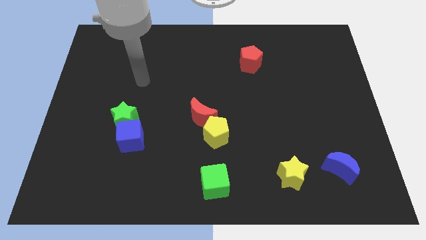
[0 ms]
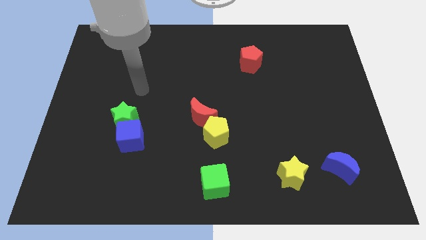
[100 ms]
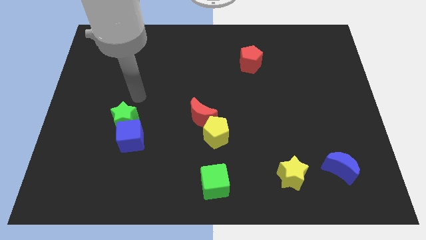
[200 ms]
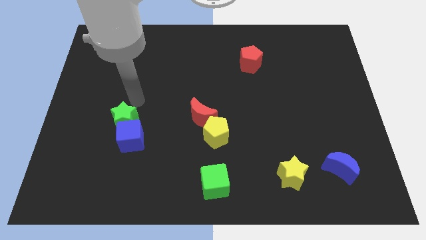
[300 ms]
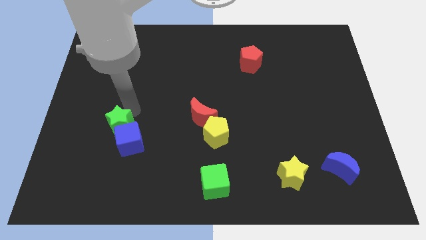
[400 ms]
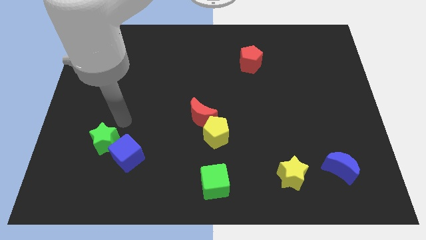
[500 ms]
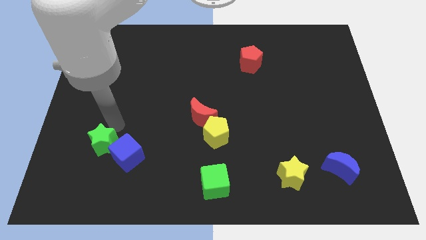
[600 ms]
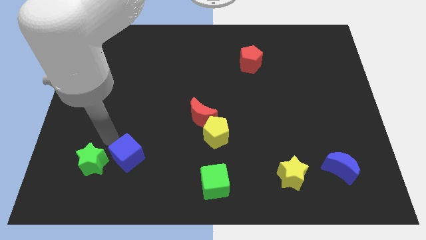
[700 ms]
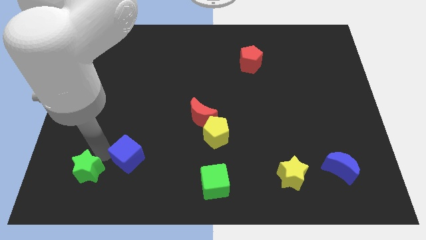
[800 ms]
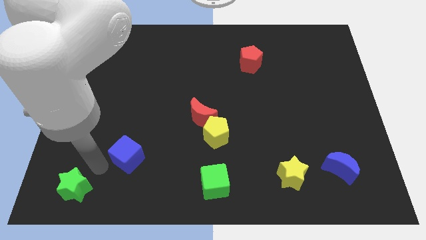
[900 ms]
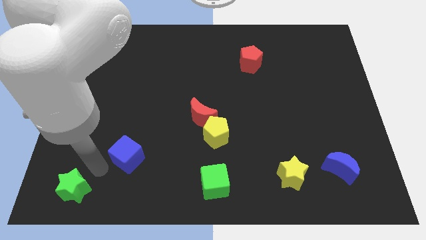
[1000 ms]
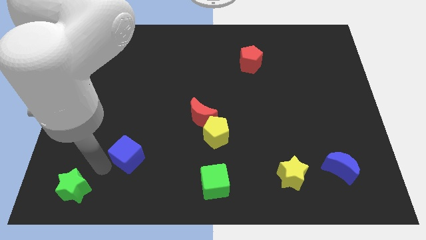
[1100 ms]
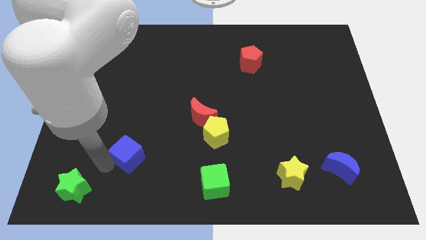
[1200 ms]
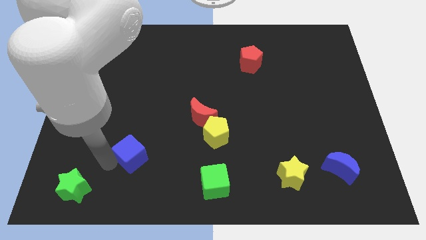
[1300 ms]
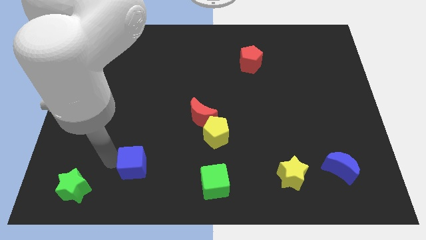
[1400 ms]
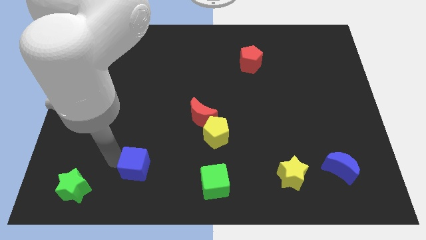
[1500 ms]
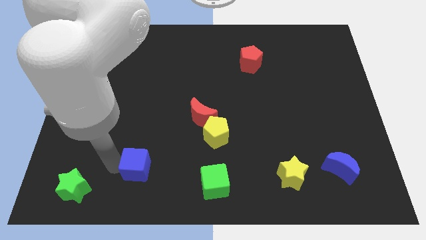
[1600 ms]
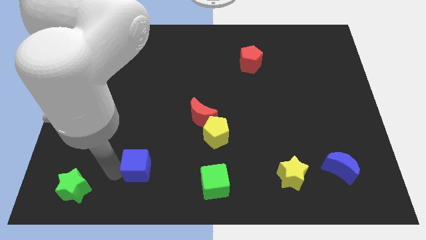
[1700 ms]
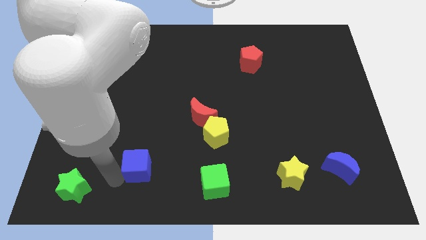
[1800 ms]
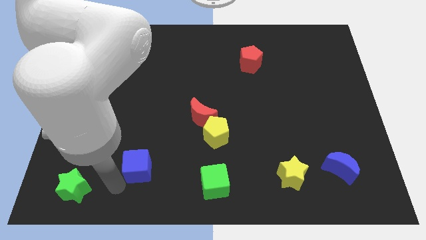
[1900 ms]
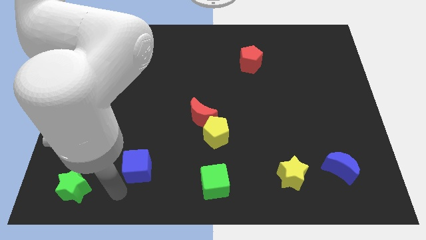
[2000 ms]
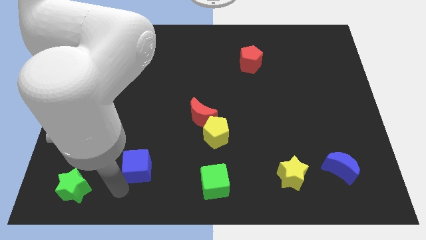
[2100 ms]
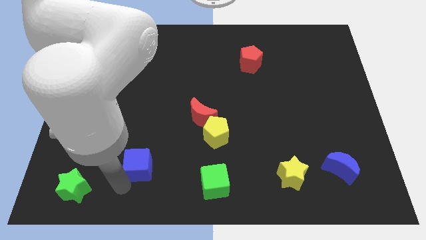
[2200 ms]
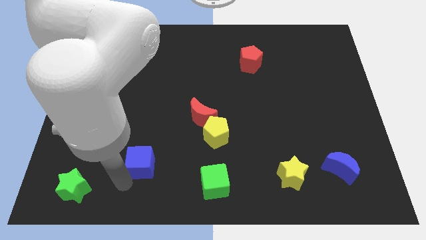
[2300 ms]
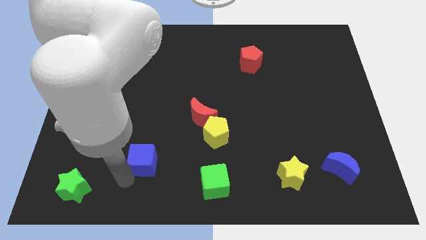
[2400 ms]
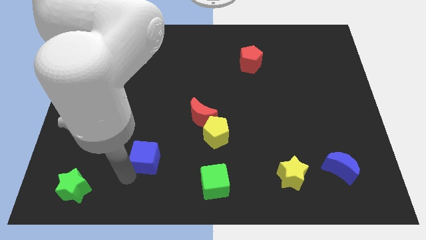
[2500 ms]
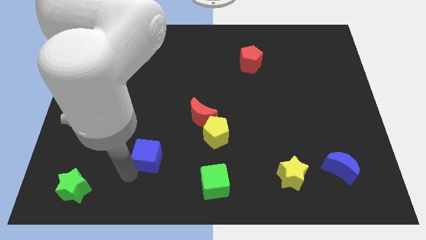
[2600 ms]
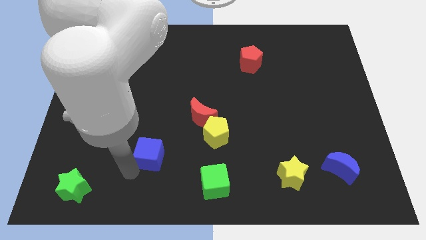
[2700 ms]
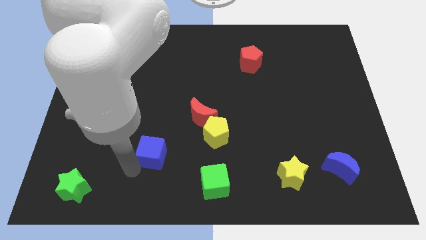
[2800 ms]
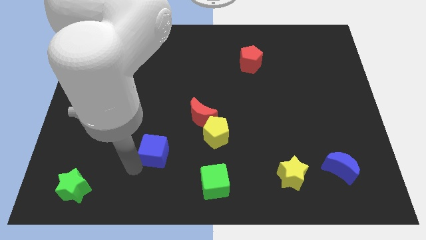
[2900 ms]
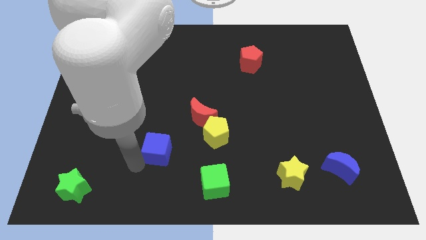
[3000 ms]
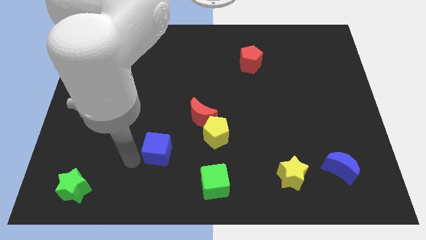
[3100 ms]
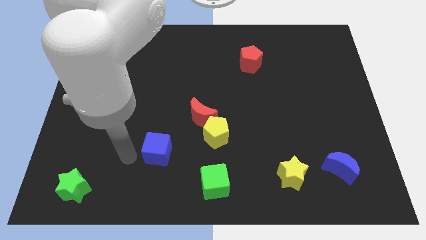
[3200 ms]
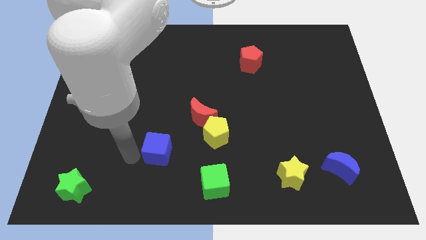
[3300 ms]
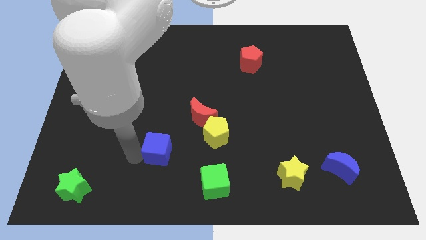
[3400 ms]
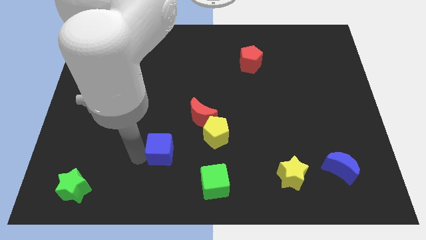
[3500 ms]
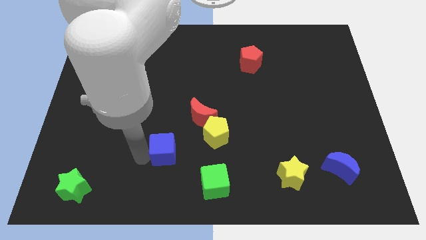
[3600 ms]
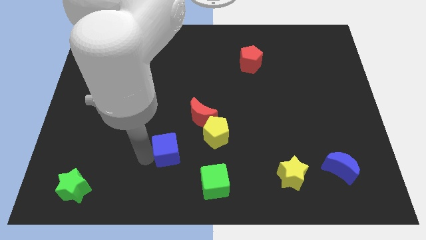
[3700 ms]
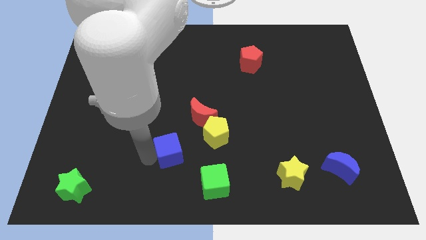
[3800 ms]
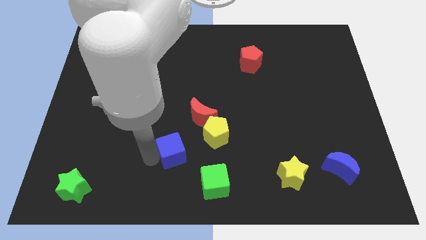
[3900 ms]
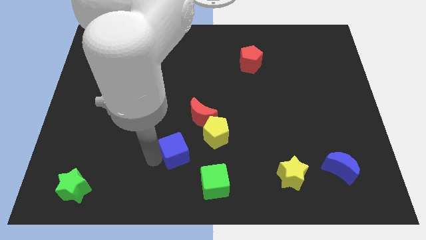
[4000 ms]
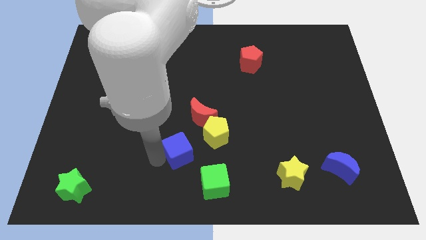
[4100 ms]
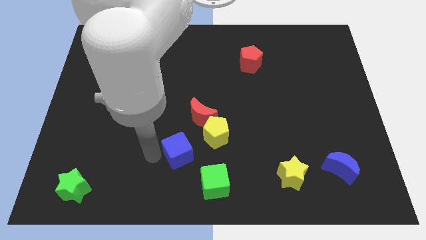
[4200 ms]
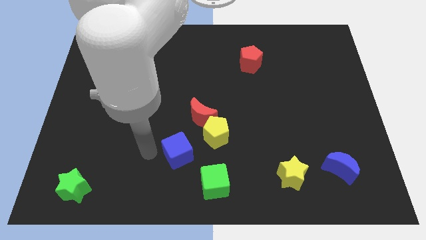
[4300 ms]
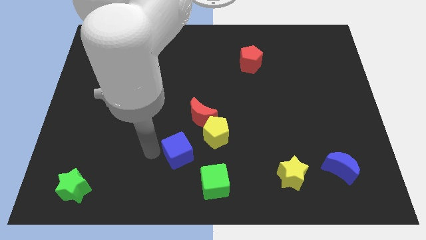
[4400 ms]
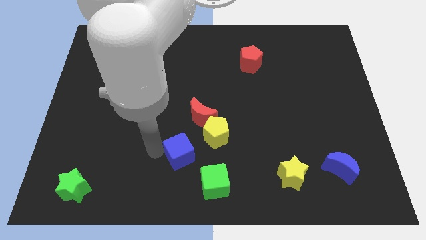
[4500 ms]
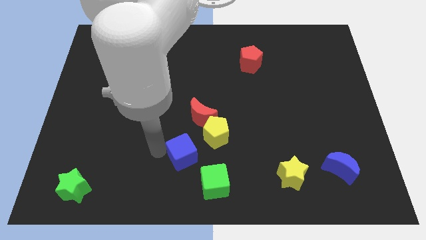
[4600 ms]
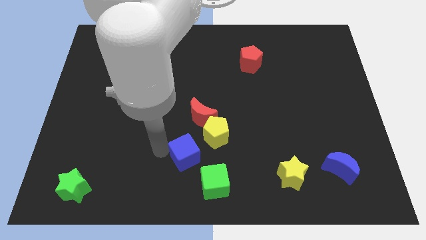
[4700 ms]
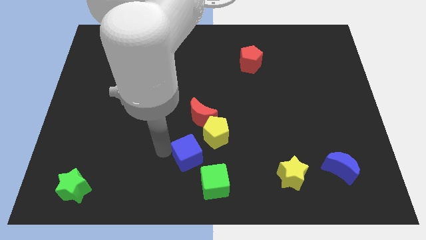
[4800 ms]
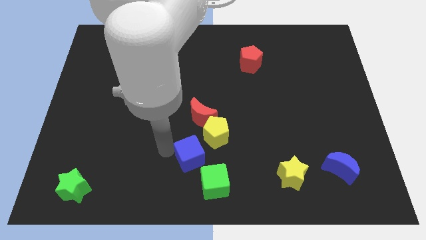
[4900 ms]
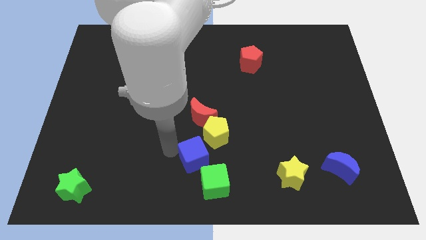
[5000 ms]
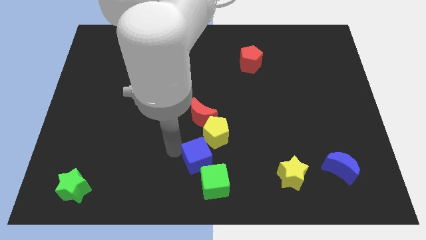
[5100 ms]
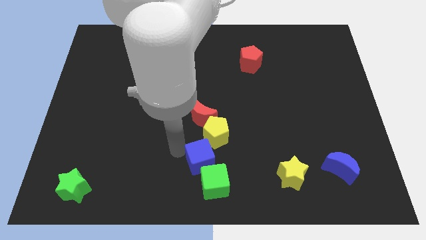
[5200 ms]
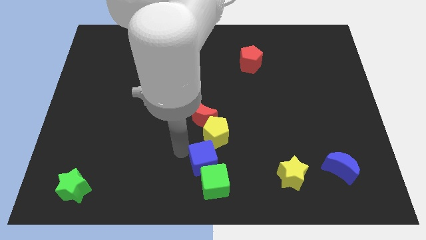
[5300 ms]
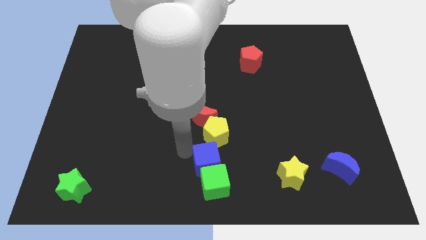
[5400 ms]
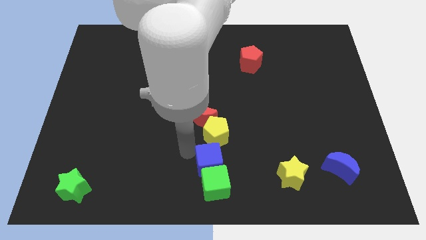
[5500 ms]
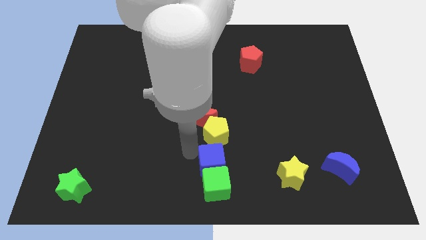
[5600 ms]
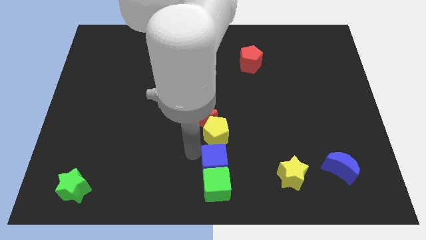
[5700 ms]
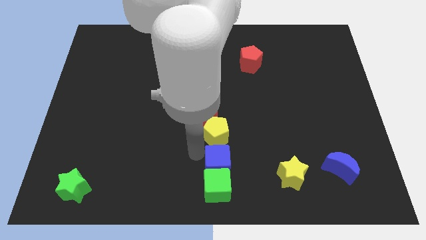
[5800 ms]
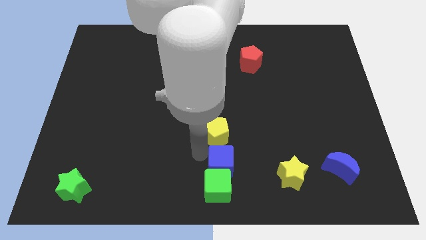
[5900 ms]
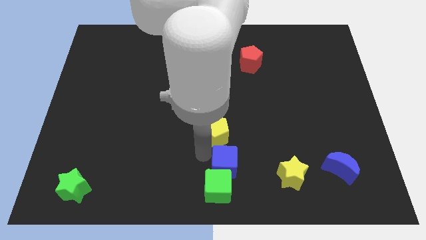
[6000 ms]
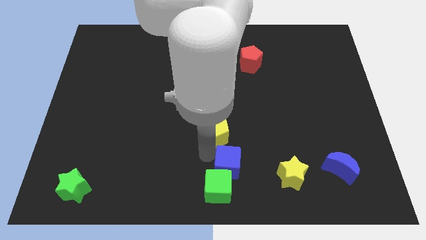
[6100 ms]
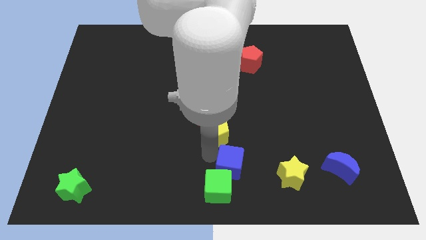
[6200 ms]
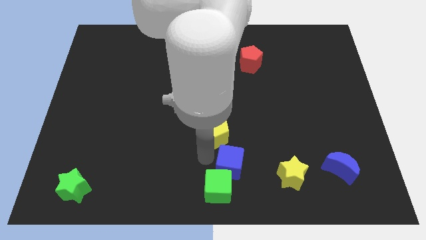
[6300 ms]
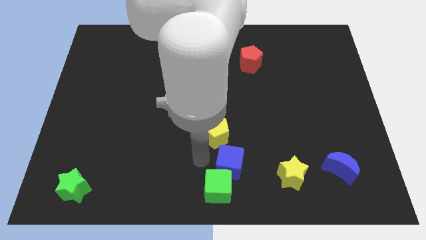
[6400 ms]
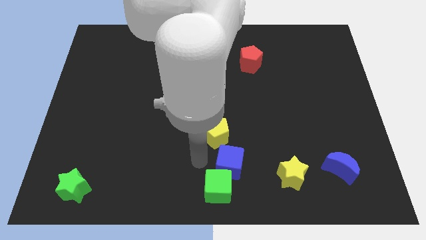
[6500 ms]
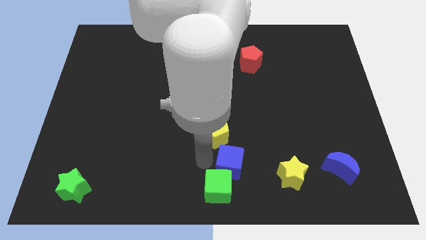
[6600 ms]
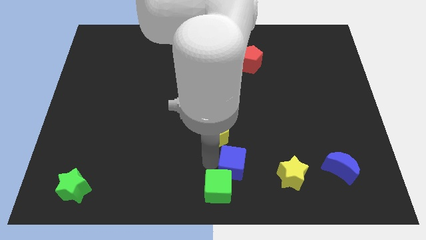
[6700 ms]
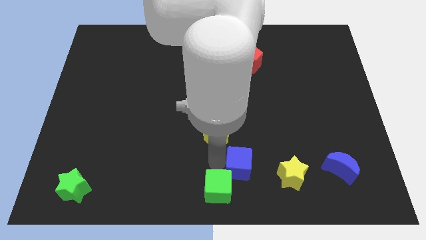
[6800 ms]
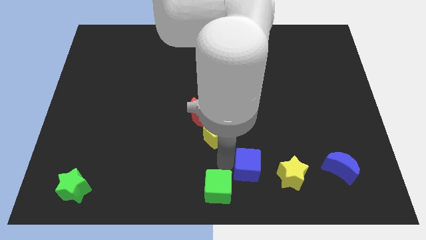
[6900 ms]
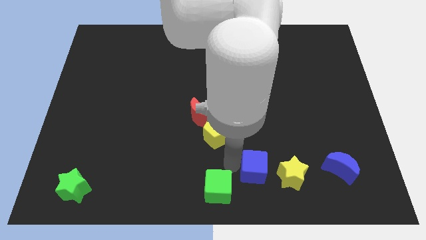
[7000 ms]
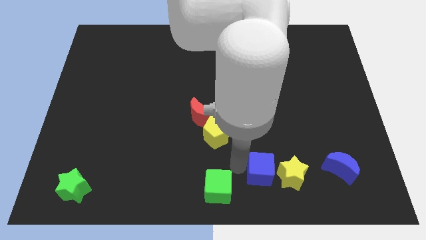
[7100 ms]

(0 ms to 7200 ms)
put the blue cube next to the yellow star

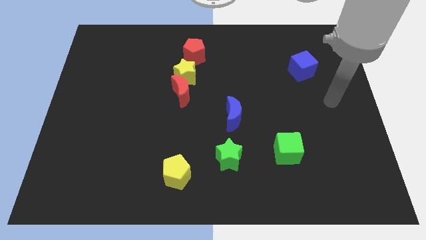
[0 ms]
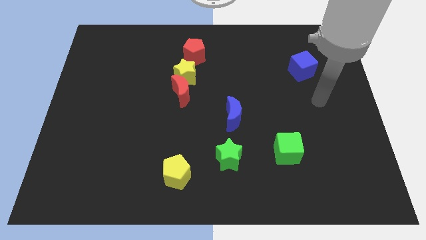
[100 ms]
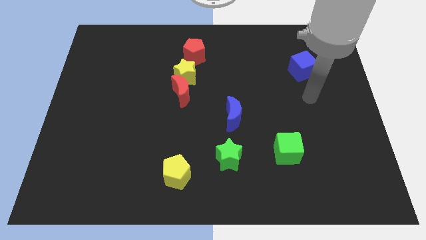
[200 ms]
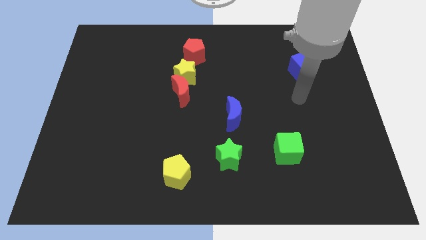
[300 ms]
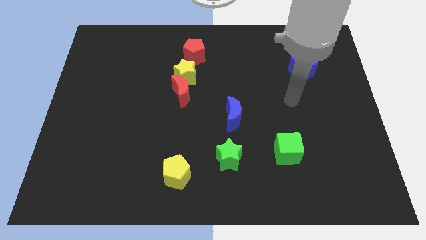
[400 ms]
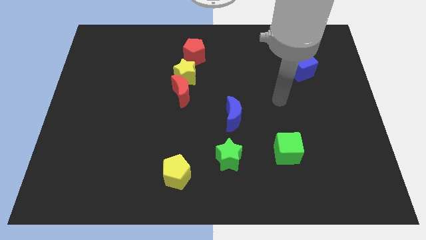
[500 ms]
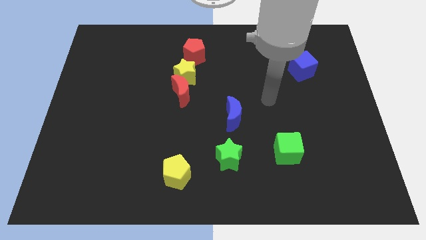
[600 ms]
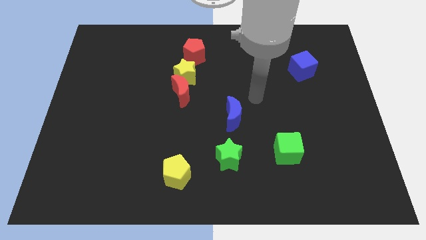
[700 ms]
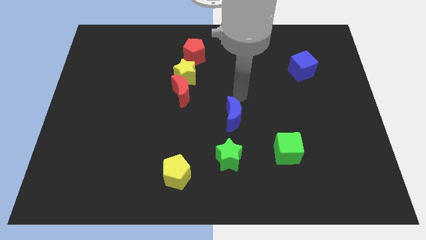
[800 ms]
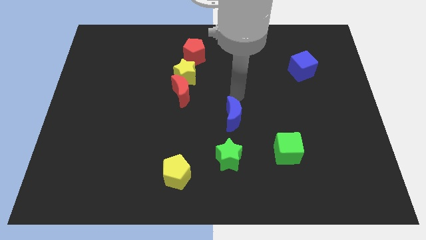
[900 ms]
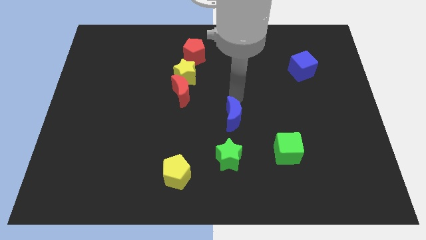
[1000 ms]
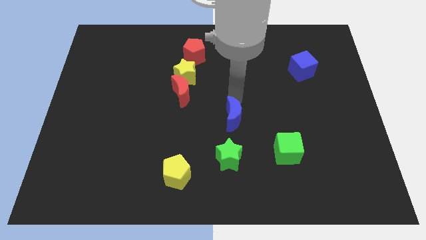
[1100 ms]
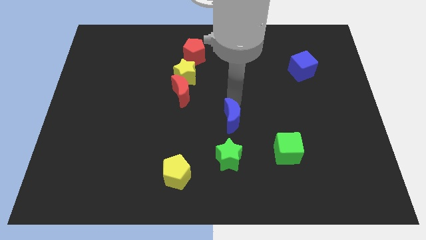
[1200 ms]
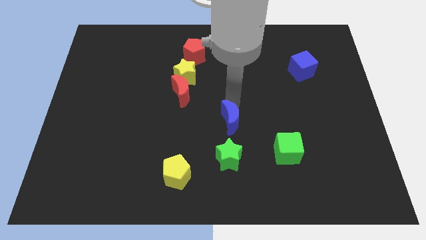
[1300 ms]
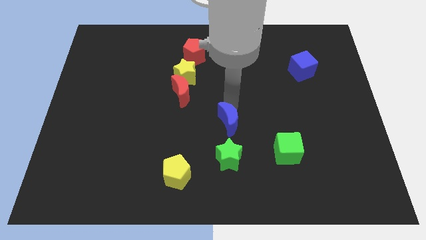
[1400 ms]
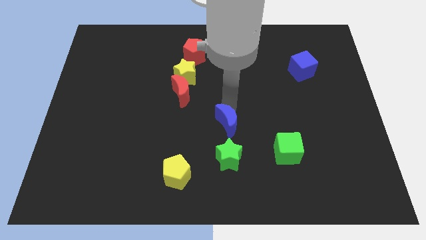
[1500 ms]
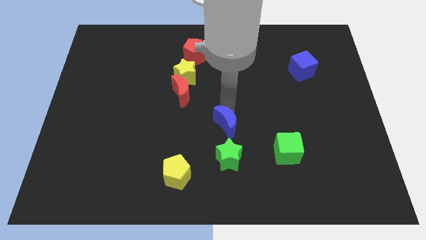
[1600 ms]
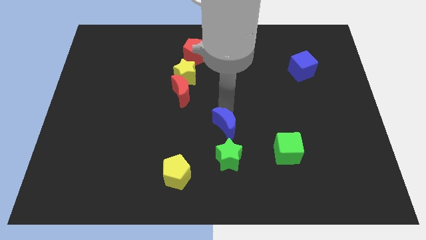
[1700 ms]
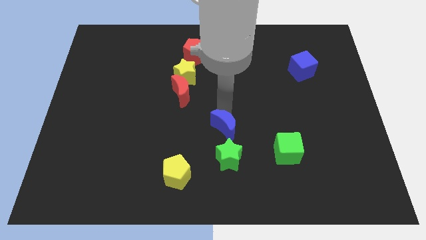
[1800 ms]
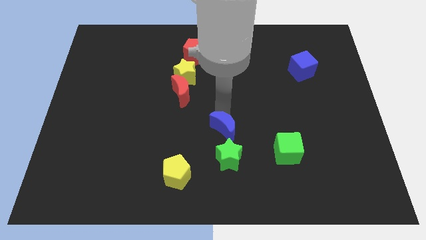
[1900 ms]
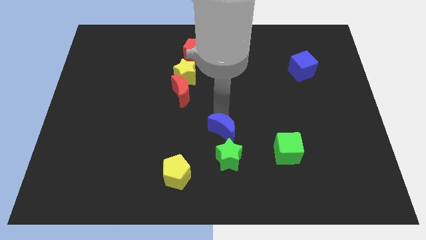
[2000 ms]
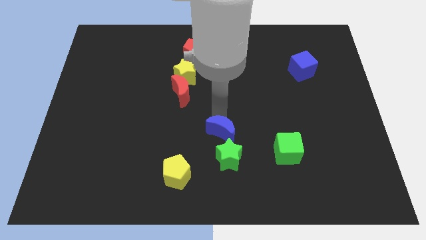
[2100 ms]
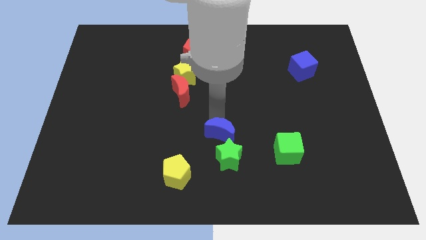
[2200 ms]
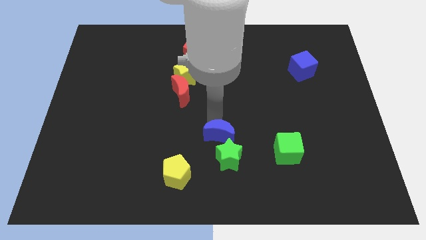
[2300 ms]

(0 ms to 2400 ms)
slide the blue moon to the green star
